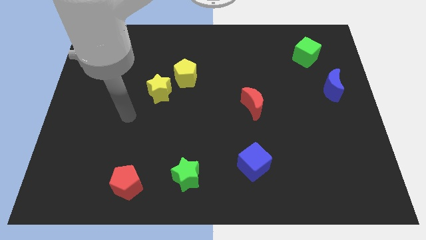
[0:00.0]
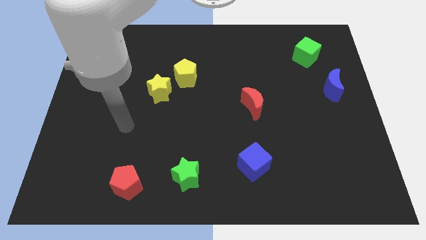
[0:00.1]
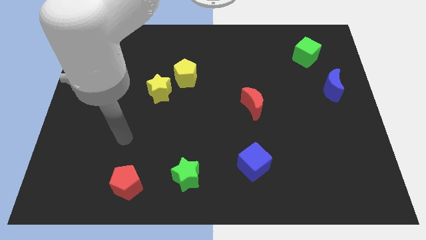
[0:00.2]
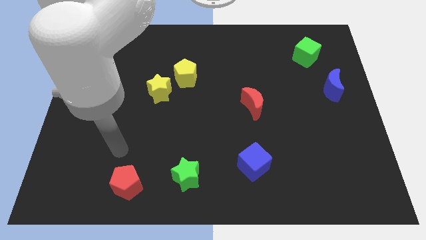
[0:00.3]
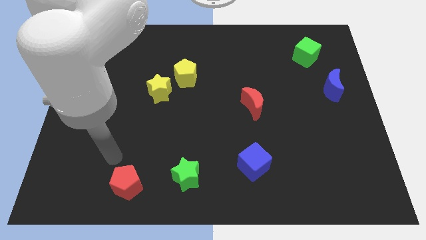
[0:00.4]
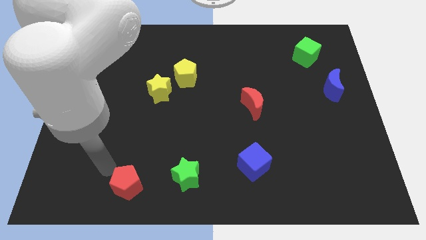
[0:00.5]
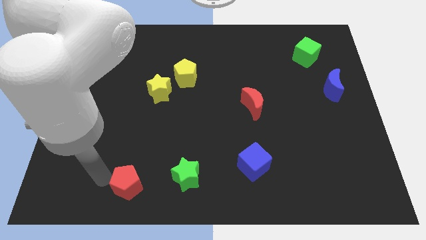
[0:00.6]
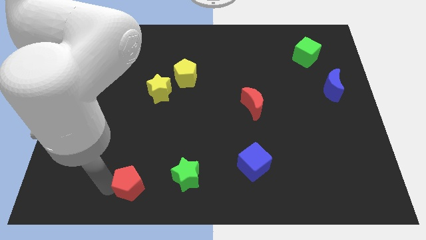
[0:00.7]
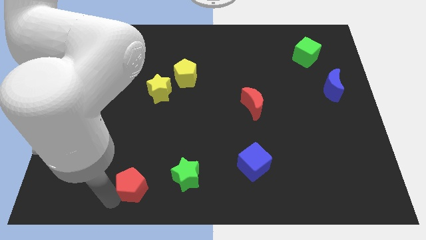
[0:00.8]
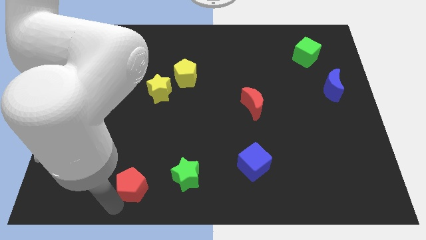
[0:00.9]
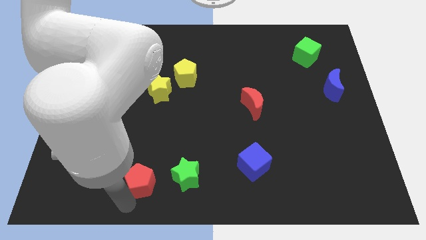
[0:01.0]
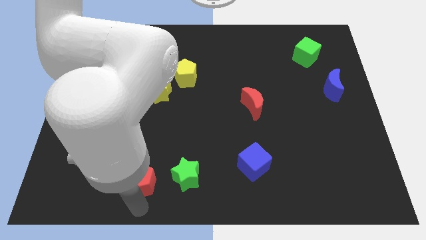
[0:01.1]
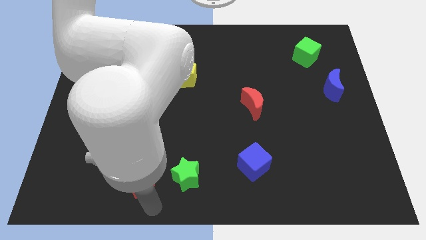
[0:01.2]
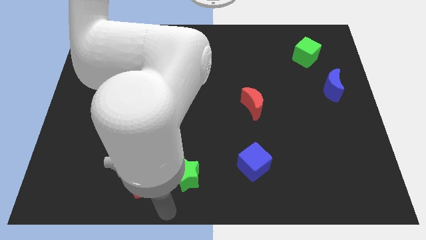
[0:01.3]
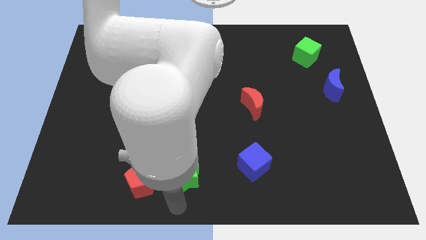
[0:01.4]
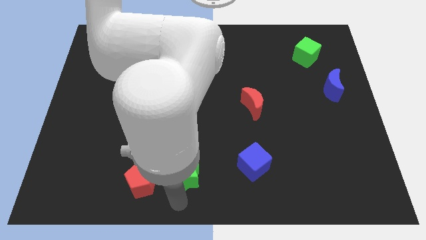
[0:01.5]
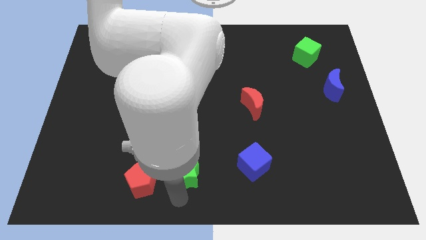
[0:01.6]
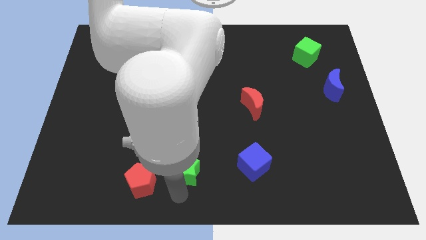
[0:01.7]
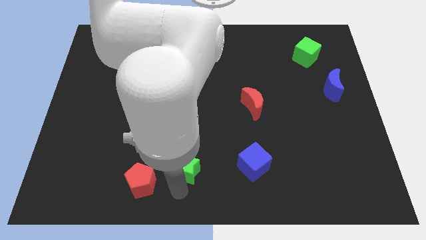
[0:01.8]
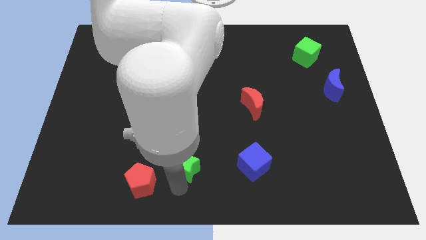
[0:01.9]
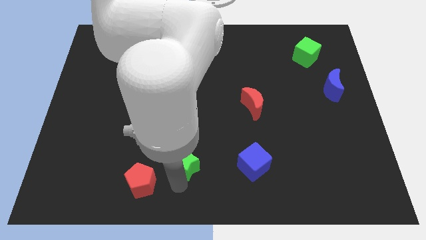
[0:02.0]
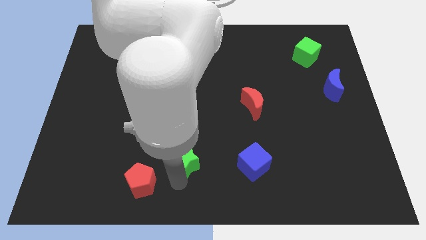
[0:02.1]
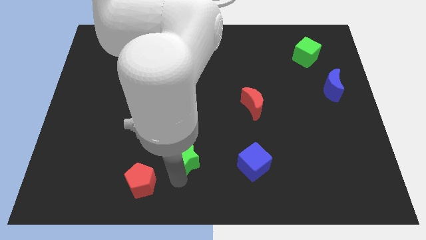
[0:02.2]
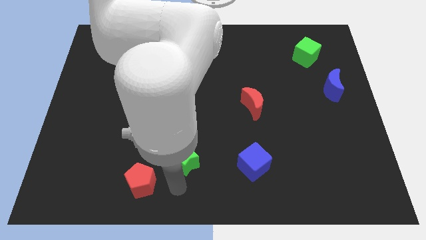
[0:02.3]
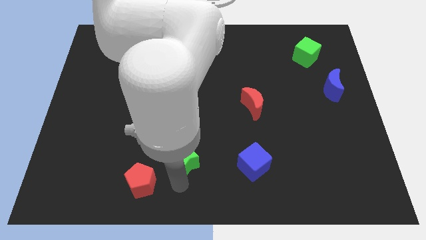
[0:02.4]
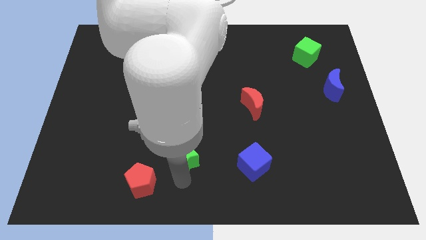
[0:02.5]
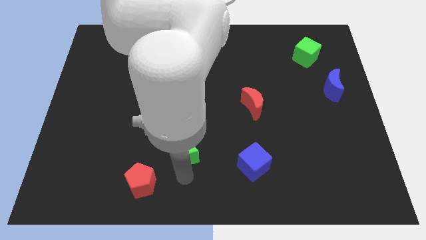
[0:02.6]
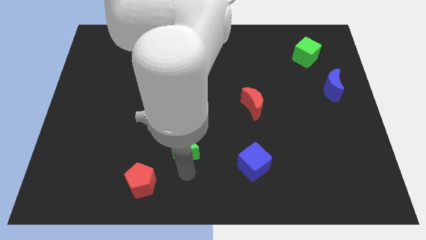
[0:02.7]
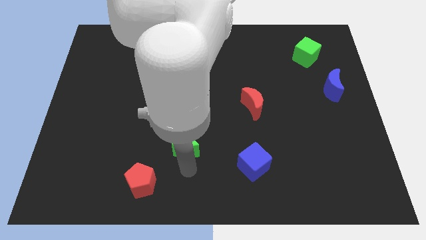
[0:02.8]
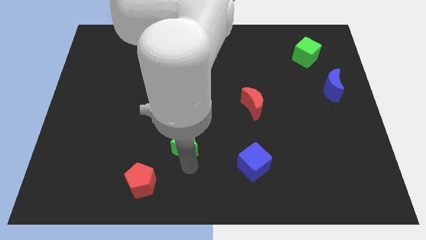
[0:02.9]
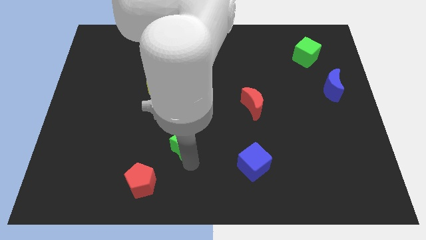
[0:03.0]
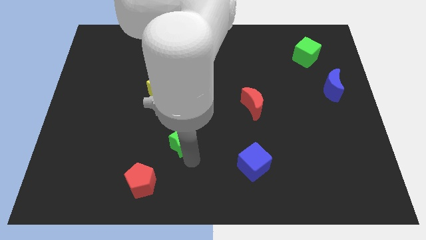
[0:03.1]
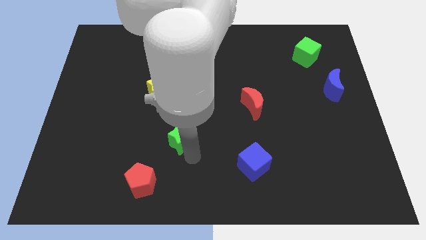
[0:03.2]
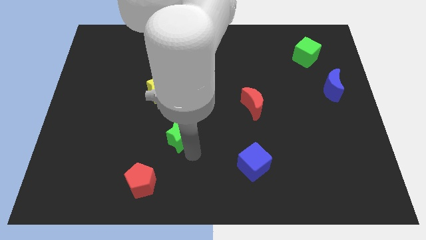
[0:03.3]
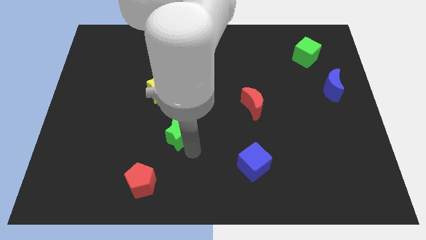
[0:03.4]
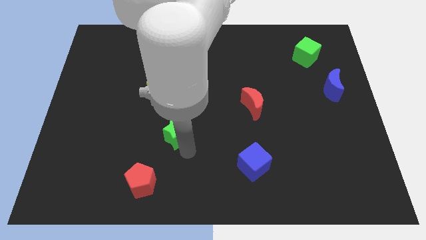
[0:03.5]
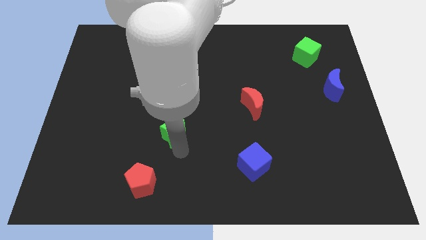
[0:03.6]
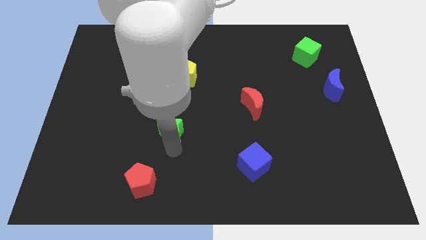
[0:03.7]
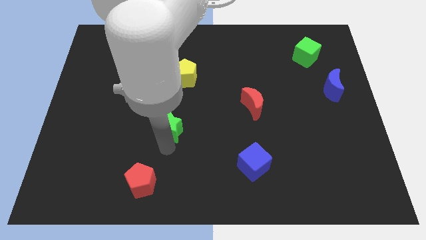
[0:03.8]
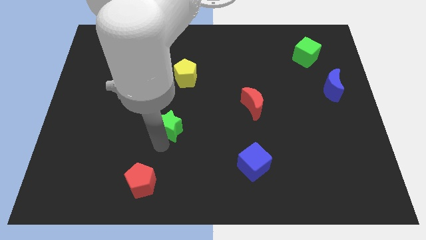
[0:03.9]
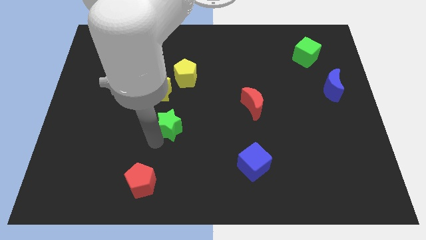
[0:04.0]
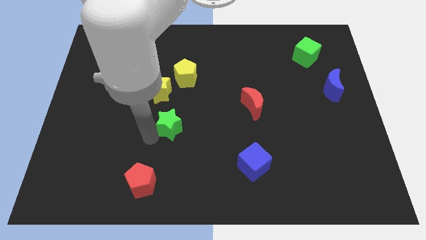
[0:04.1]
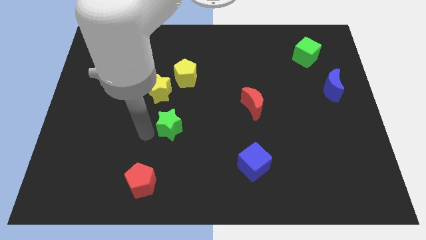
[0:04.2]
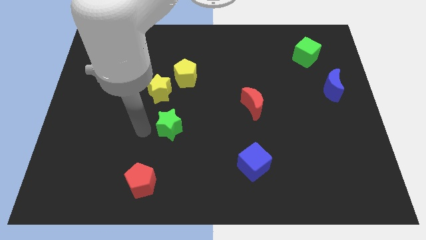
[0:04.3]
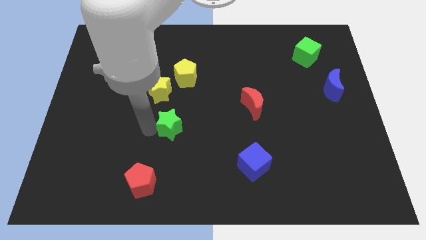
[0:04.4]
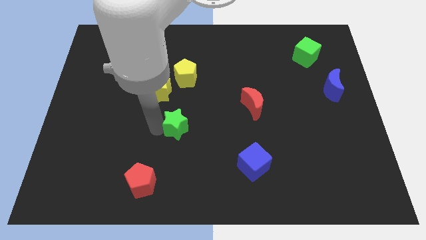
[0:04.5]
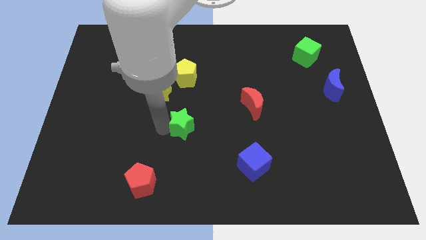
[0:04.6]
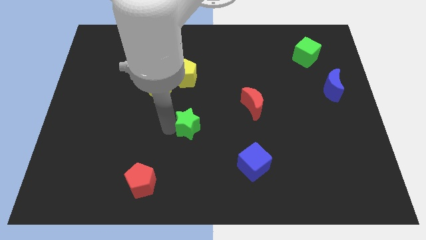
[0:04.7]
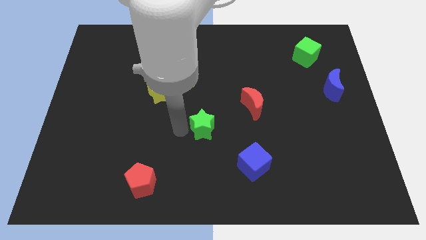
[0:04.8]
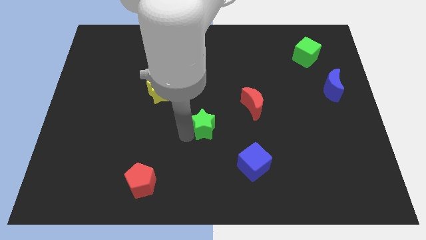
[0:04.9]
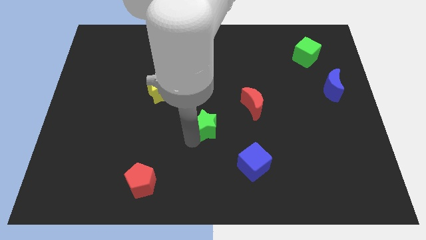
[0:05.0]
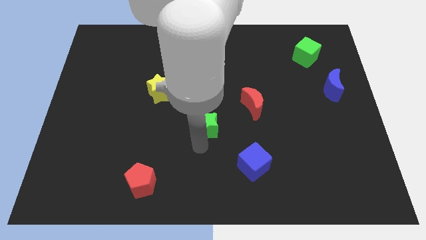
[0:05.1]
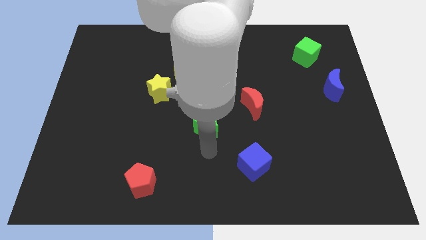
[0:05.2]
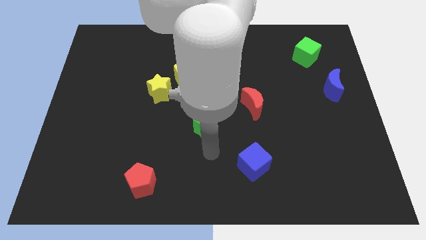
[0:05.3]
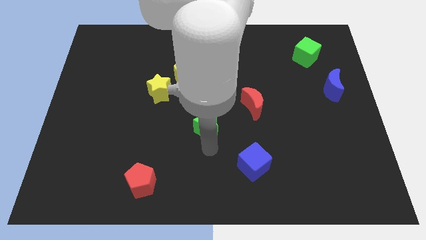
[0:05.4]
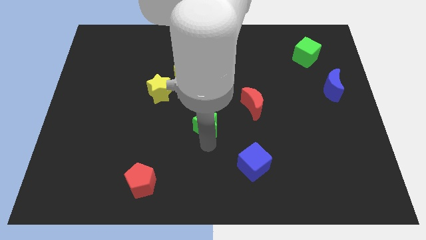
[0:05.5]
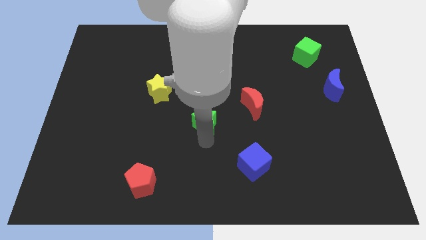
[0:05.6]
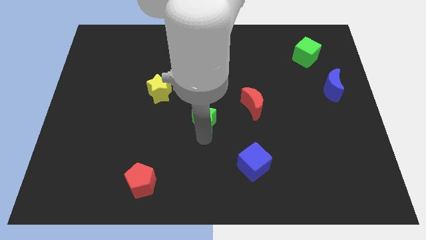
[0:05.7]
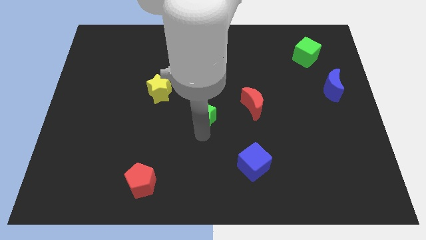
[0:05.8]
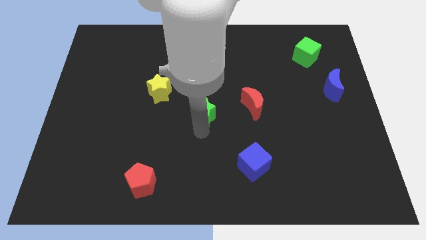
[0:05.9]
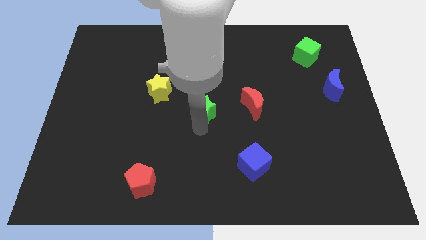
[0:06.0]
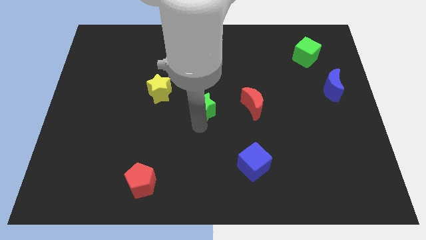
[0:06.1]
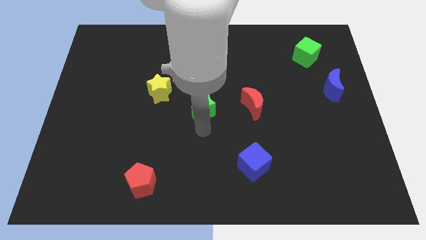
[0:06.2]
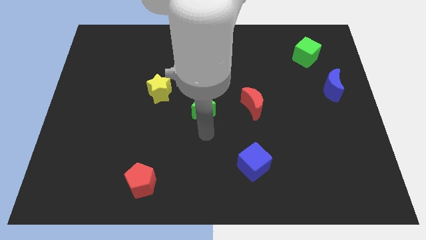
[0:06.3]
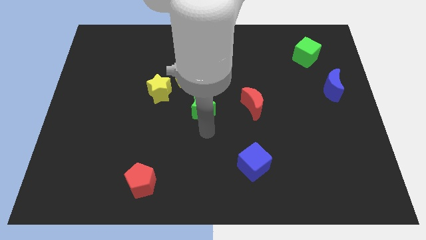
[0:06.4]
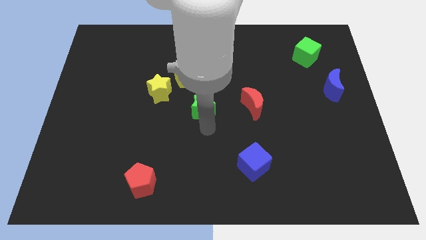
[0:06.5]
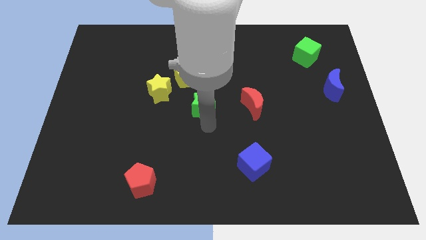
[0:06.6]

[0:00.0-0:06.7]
slide the green star just right of the yellow star

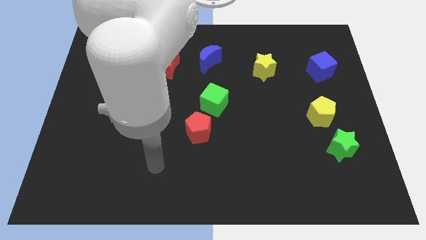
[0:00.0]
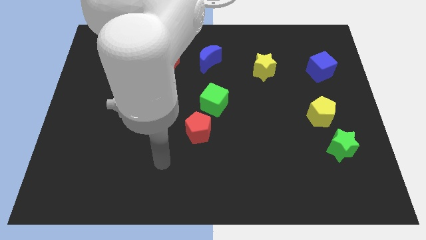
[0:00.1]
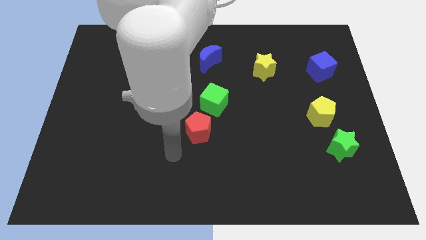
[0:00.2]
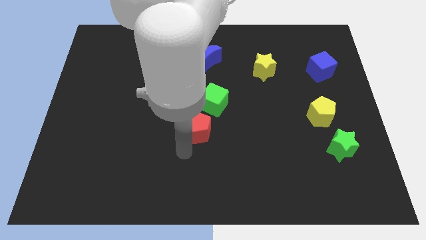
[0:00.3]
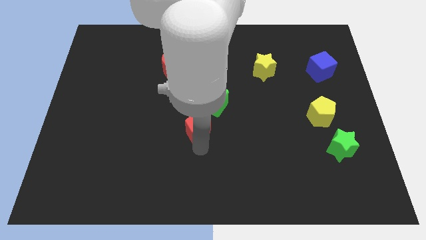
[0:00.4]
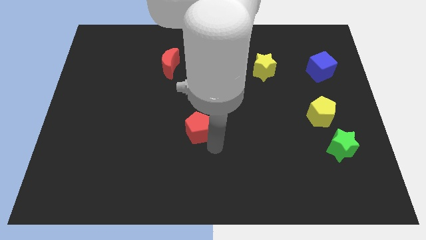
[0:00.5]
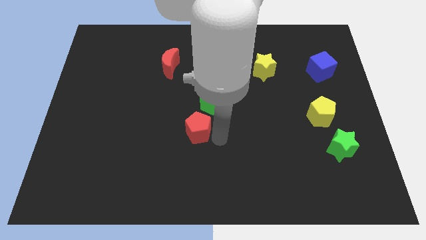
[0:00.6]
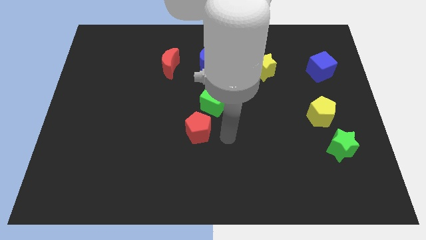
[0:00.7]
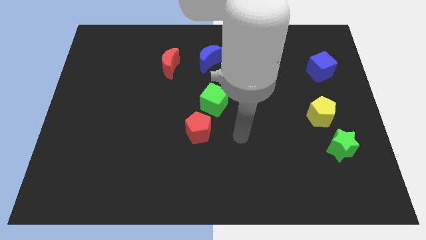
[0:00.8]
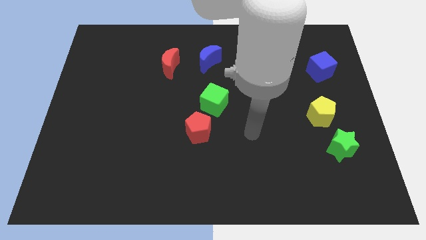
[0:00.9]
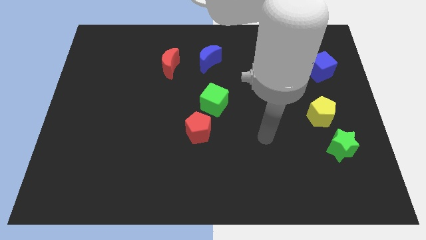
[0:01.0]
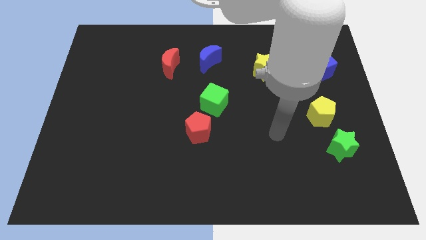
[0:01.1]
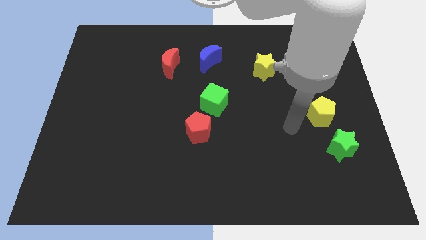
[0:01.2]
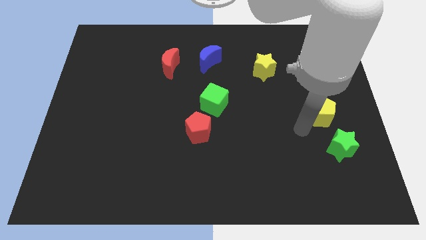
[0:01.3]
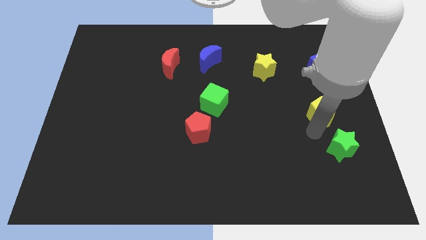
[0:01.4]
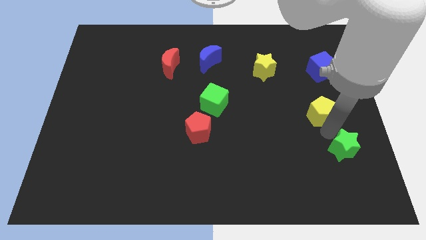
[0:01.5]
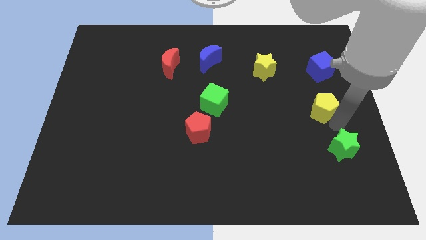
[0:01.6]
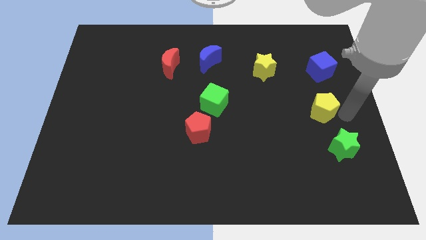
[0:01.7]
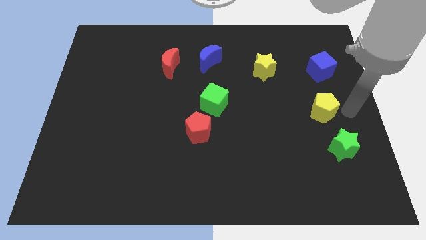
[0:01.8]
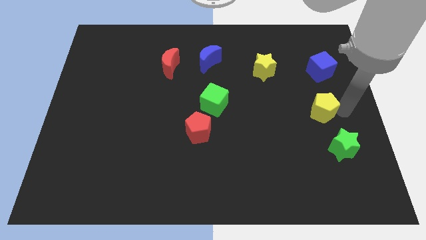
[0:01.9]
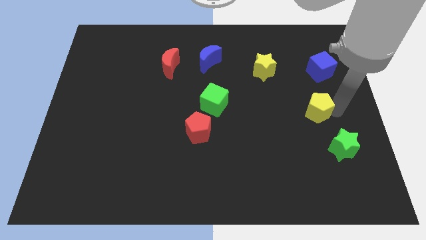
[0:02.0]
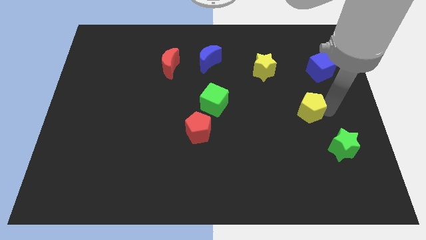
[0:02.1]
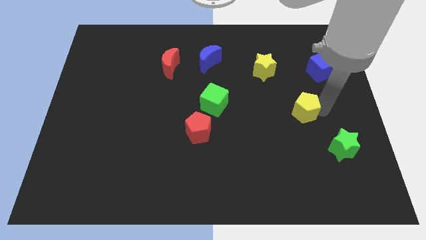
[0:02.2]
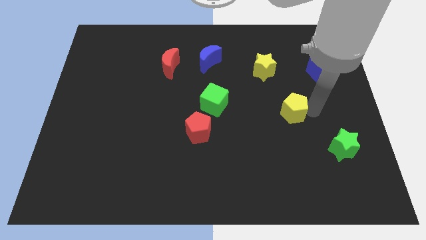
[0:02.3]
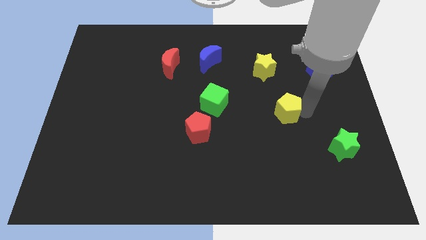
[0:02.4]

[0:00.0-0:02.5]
move the yellow pentagon to the bottom side of the yellow star
